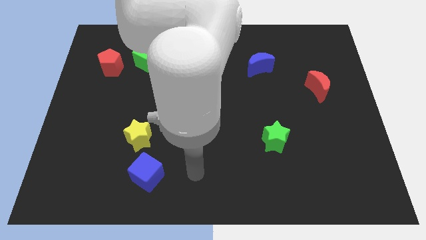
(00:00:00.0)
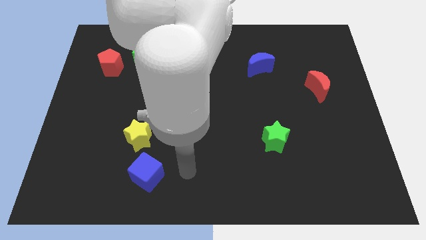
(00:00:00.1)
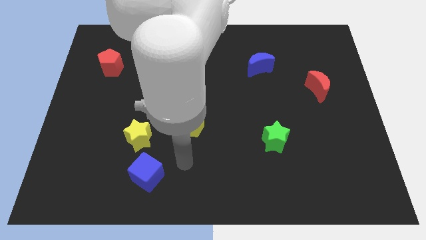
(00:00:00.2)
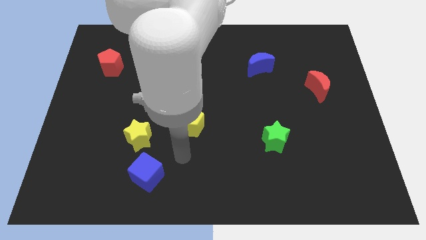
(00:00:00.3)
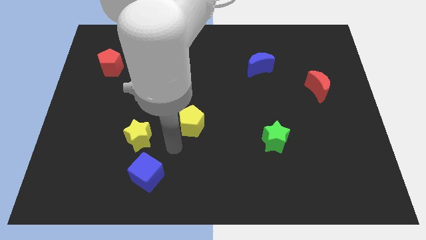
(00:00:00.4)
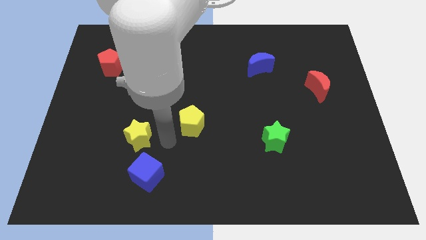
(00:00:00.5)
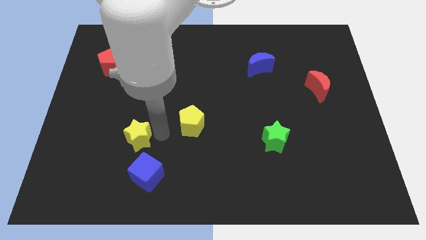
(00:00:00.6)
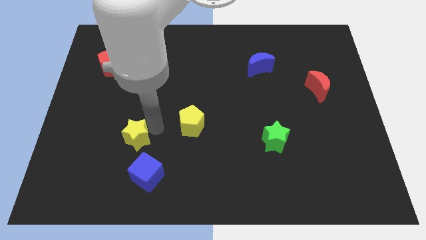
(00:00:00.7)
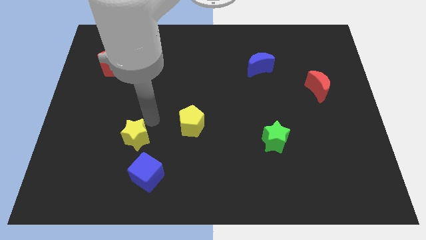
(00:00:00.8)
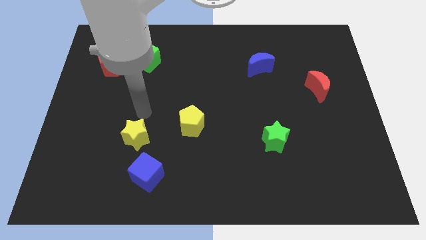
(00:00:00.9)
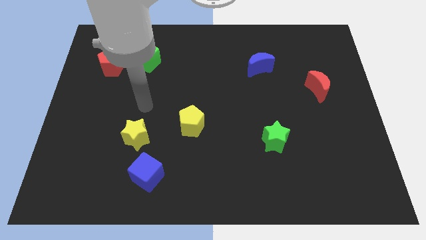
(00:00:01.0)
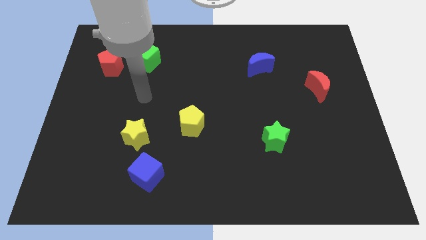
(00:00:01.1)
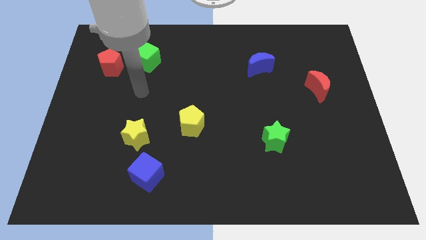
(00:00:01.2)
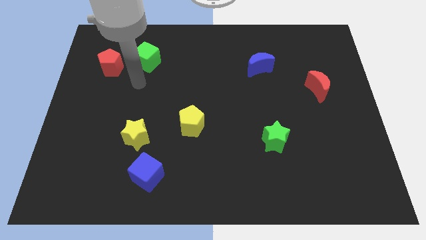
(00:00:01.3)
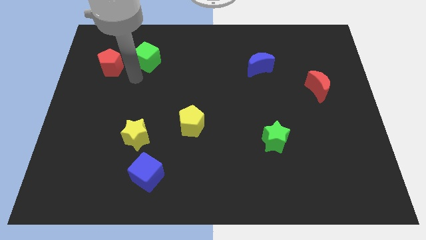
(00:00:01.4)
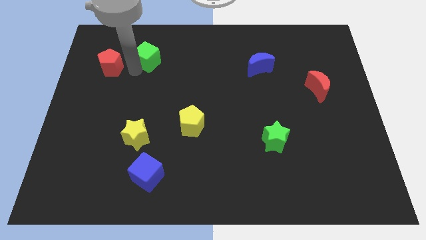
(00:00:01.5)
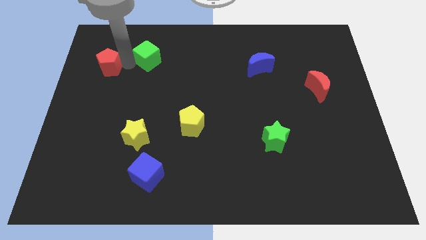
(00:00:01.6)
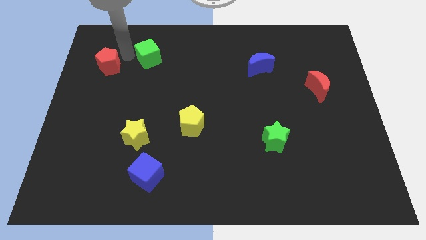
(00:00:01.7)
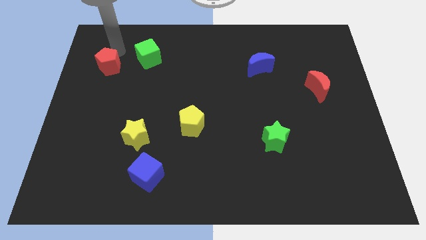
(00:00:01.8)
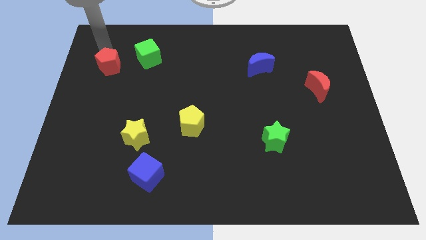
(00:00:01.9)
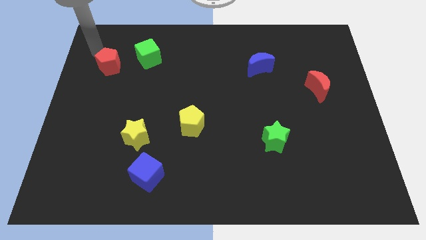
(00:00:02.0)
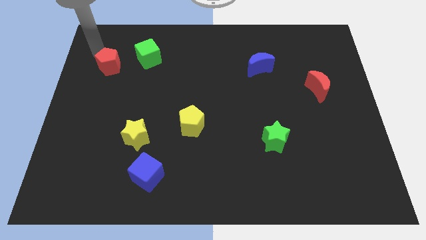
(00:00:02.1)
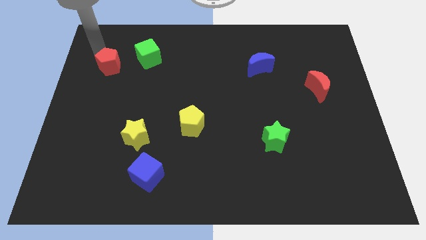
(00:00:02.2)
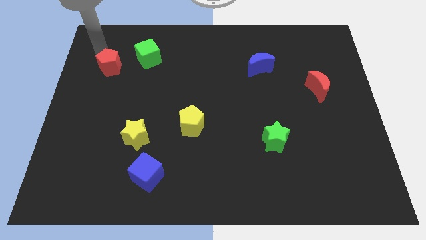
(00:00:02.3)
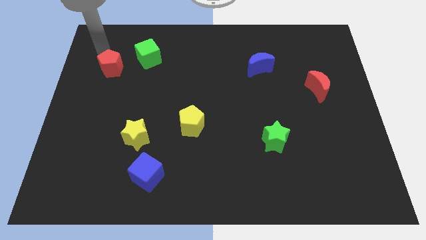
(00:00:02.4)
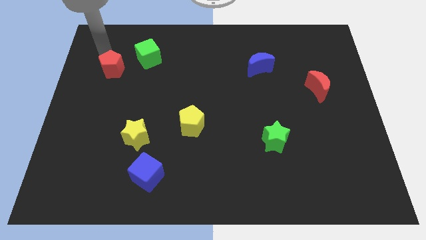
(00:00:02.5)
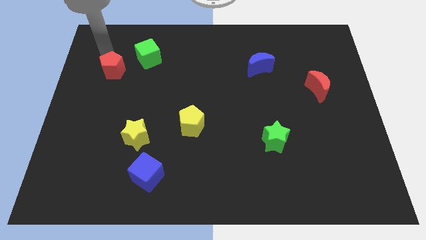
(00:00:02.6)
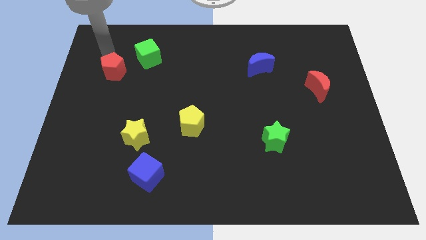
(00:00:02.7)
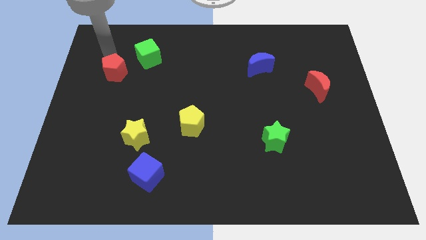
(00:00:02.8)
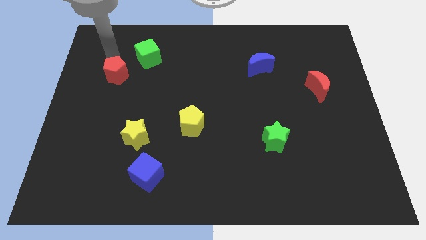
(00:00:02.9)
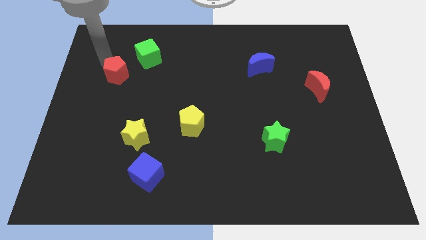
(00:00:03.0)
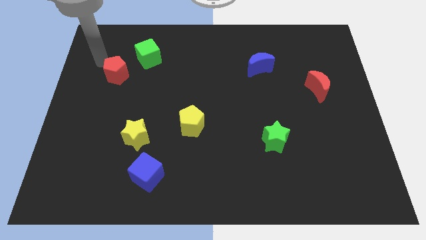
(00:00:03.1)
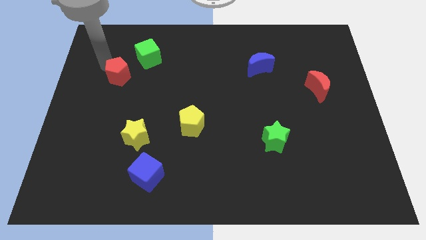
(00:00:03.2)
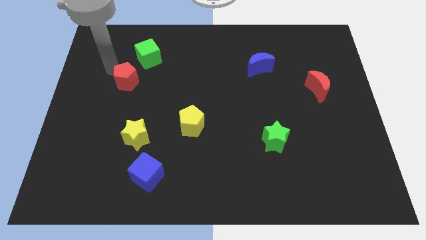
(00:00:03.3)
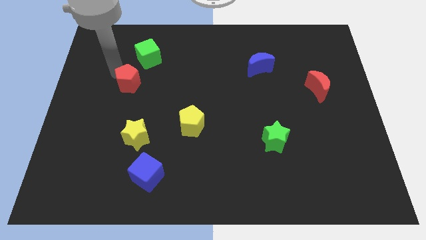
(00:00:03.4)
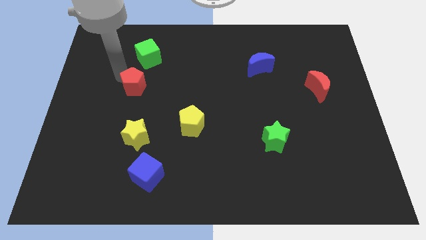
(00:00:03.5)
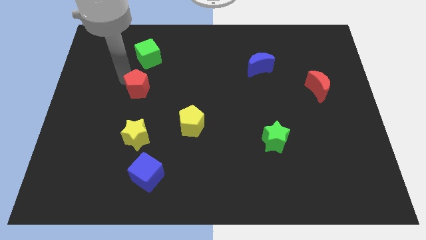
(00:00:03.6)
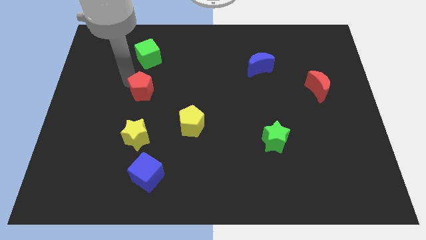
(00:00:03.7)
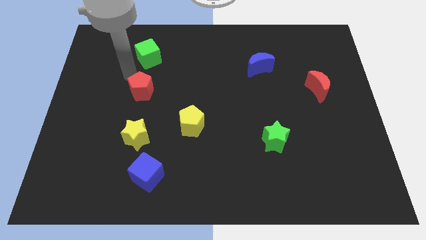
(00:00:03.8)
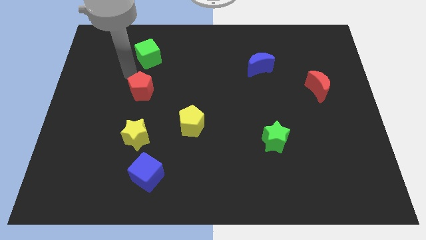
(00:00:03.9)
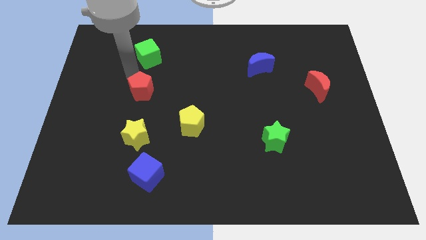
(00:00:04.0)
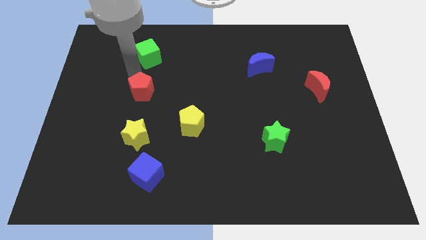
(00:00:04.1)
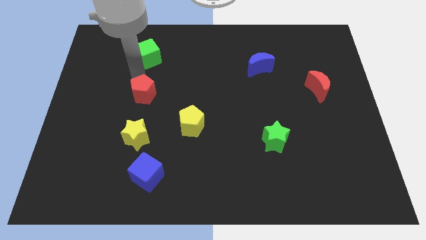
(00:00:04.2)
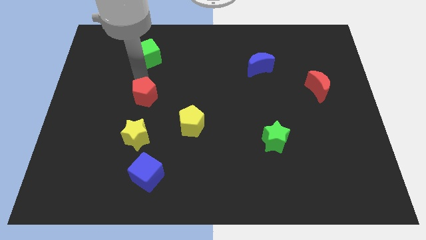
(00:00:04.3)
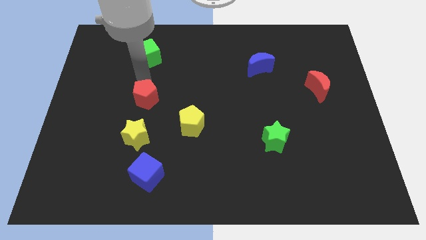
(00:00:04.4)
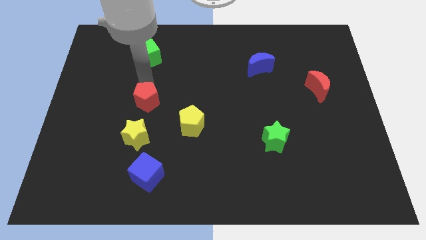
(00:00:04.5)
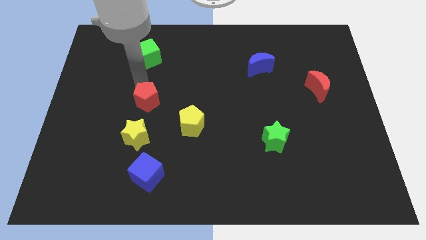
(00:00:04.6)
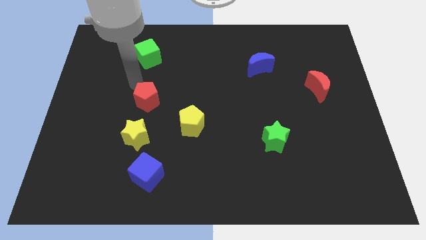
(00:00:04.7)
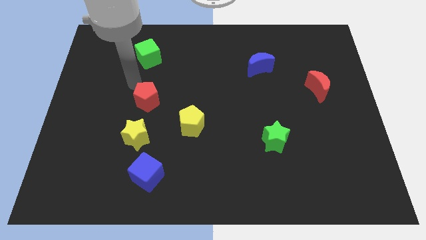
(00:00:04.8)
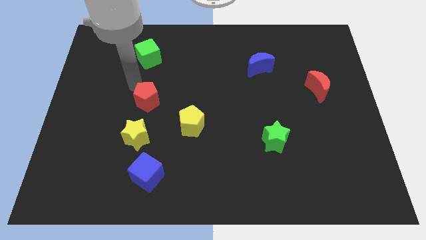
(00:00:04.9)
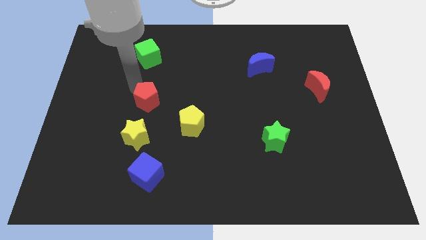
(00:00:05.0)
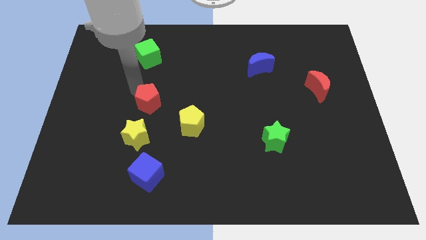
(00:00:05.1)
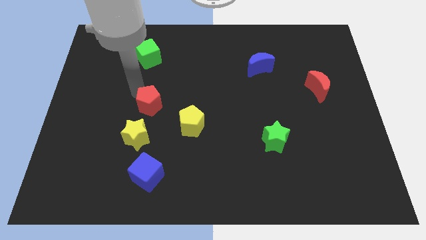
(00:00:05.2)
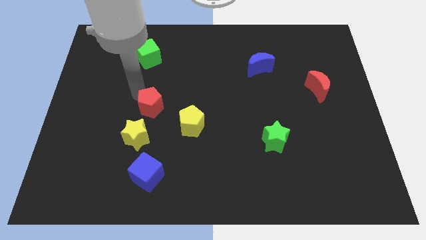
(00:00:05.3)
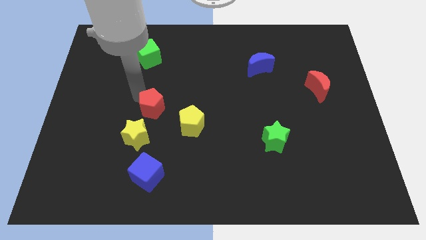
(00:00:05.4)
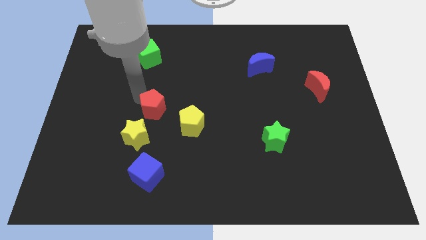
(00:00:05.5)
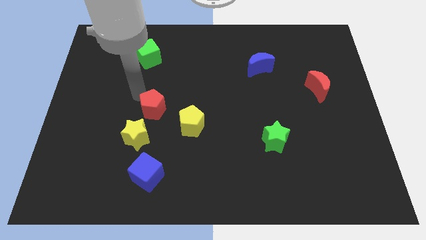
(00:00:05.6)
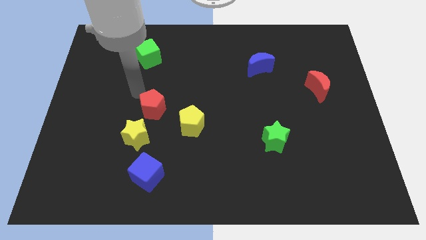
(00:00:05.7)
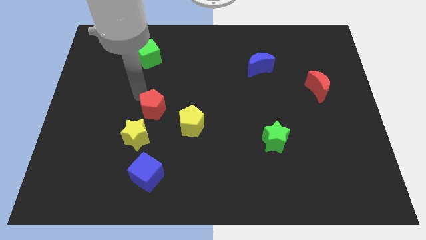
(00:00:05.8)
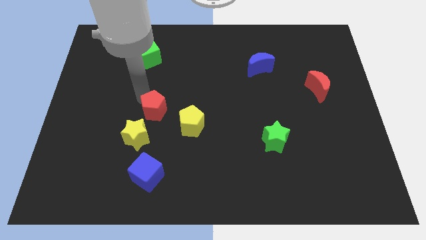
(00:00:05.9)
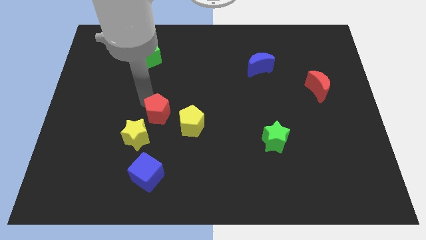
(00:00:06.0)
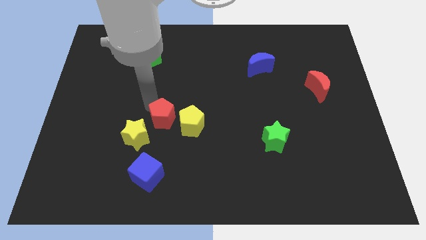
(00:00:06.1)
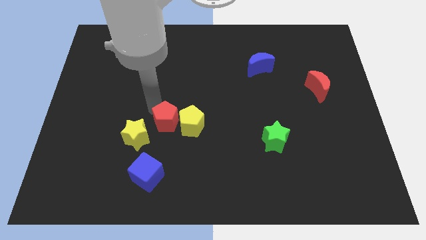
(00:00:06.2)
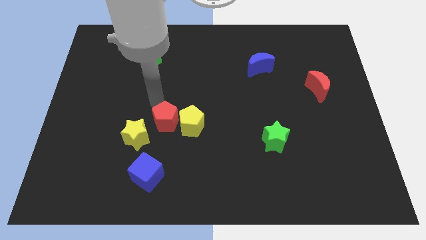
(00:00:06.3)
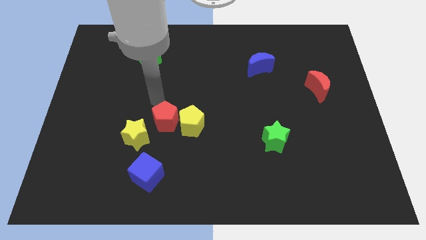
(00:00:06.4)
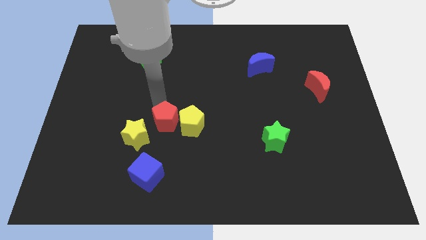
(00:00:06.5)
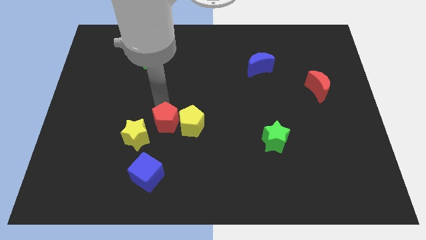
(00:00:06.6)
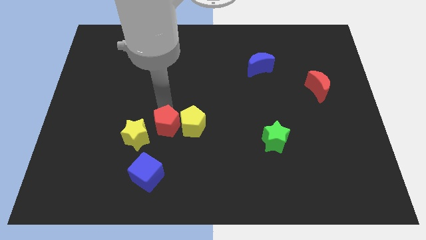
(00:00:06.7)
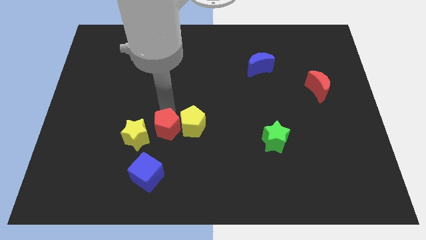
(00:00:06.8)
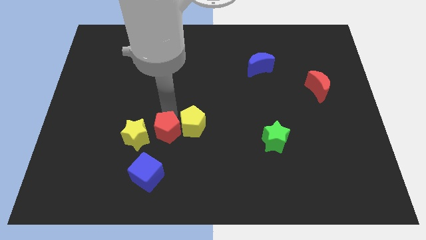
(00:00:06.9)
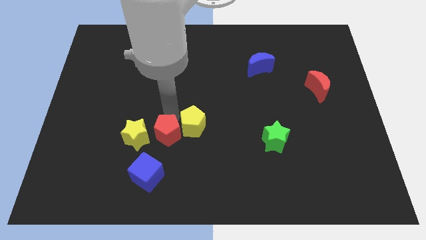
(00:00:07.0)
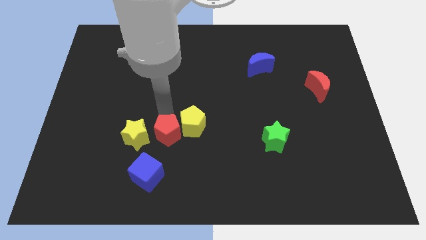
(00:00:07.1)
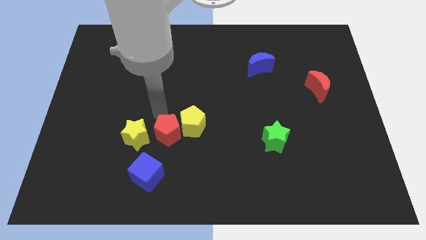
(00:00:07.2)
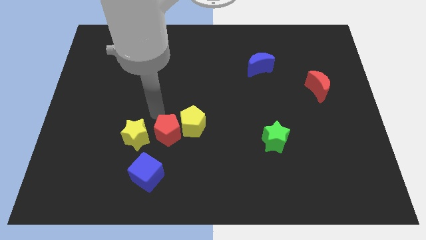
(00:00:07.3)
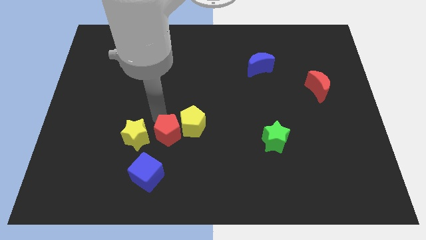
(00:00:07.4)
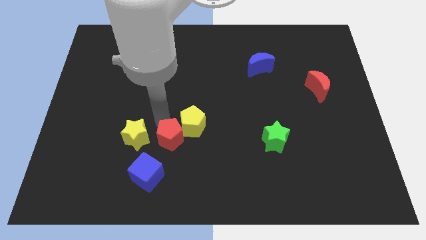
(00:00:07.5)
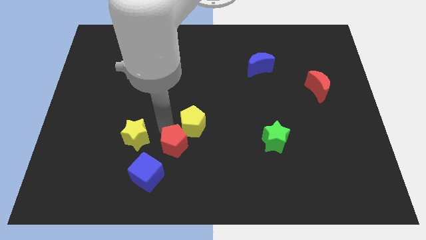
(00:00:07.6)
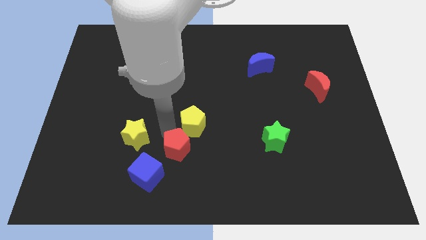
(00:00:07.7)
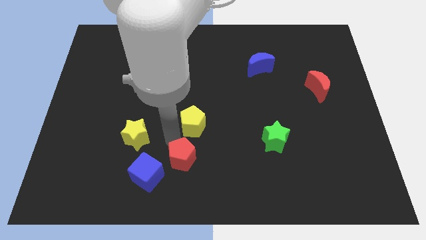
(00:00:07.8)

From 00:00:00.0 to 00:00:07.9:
slide the red pentagon just right of the blue cube
